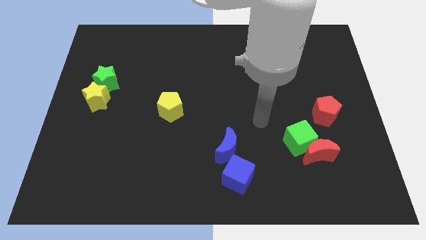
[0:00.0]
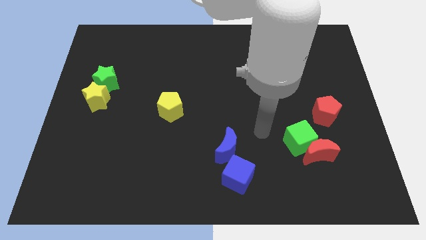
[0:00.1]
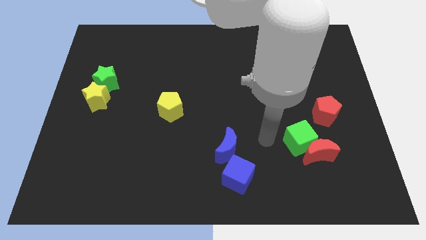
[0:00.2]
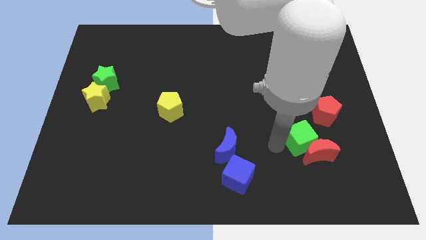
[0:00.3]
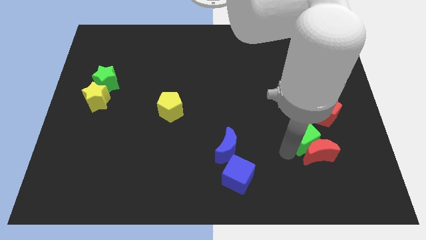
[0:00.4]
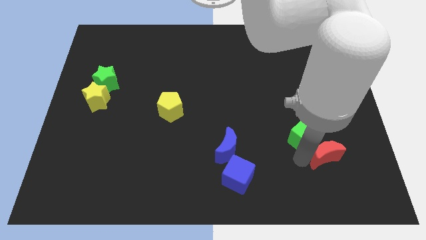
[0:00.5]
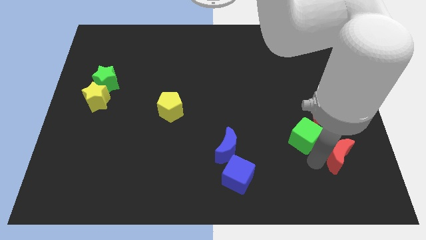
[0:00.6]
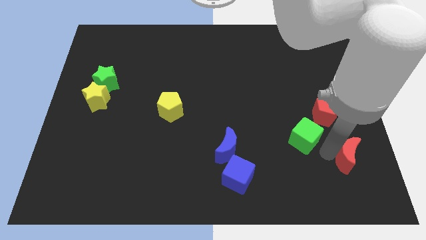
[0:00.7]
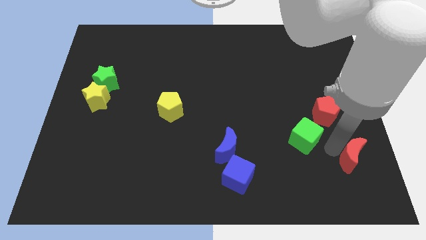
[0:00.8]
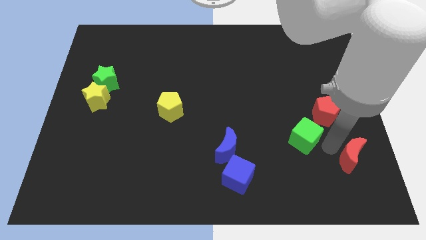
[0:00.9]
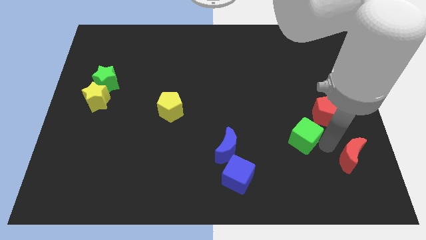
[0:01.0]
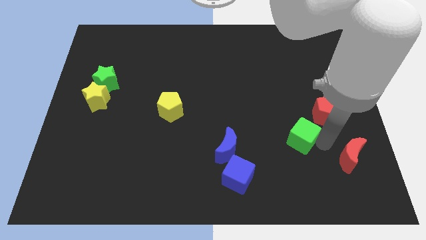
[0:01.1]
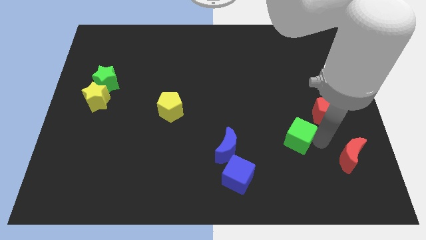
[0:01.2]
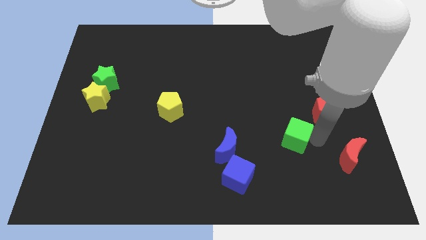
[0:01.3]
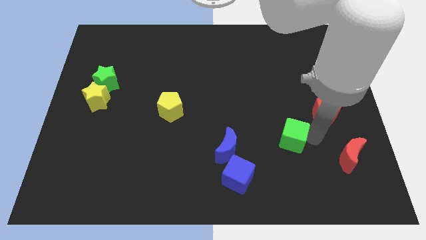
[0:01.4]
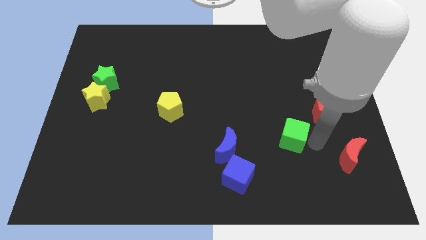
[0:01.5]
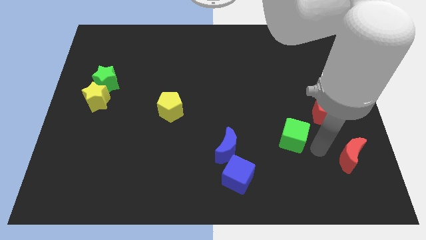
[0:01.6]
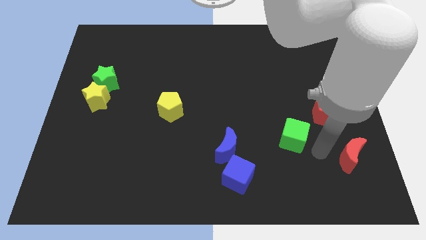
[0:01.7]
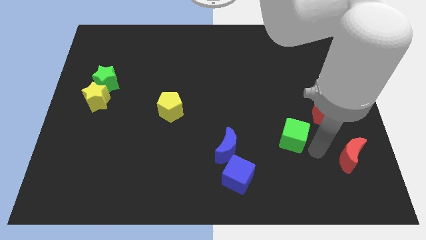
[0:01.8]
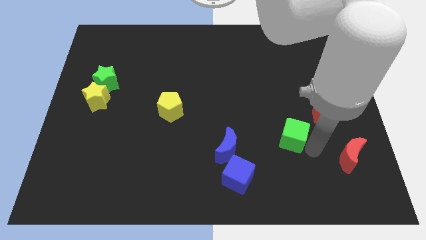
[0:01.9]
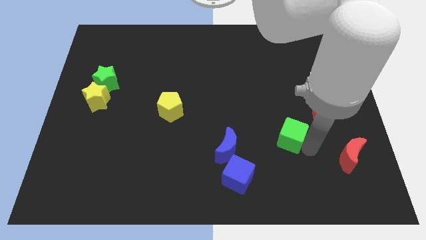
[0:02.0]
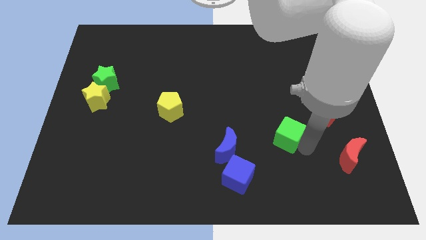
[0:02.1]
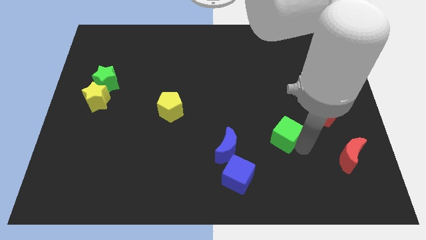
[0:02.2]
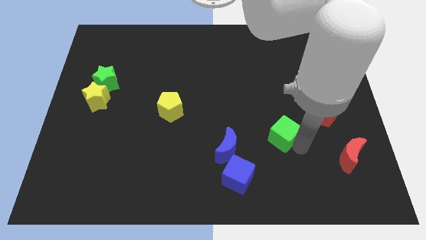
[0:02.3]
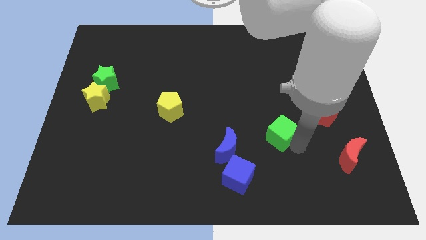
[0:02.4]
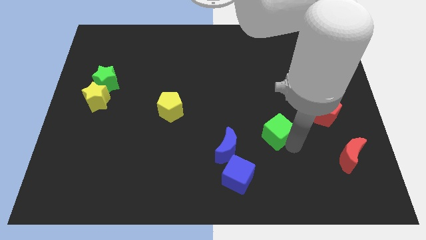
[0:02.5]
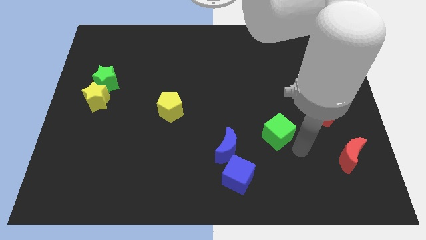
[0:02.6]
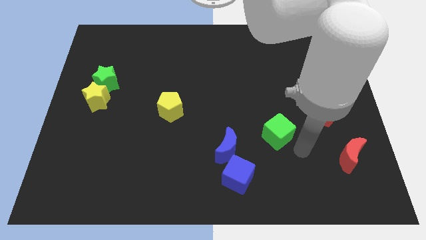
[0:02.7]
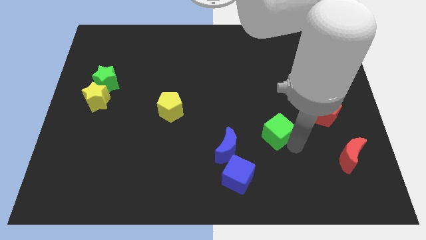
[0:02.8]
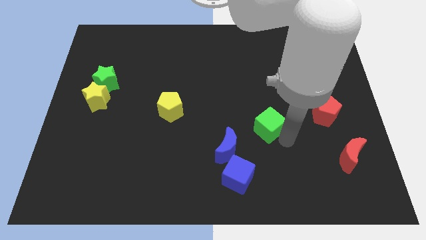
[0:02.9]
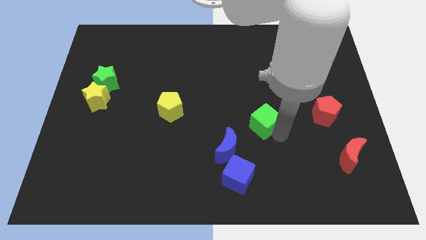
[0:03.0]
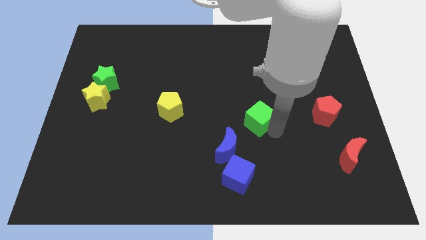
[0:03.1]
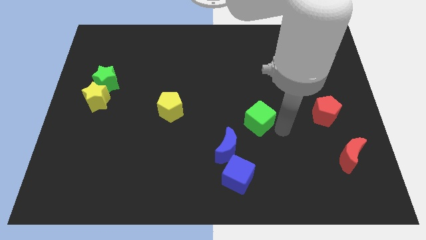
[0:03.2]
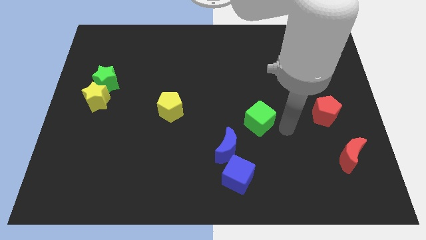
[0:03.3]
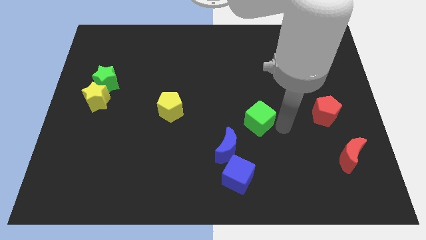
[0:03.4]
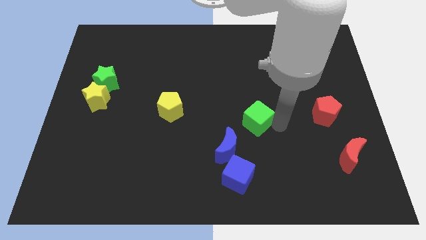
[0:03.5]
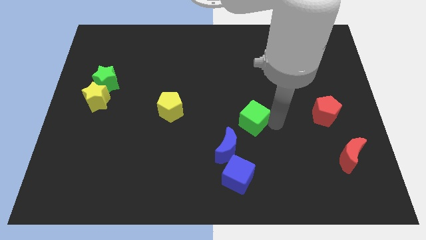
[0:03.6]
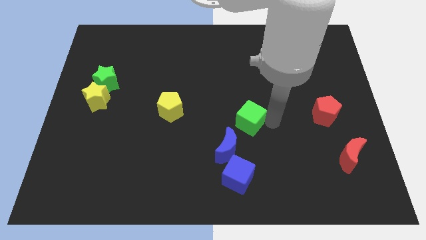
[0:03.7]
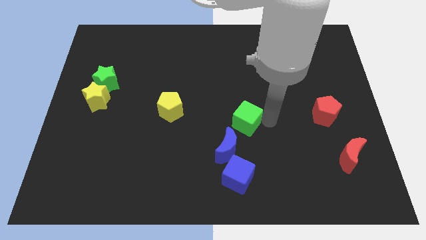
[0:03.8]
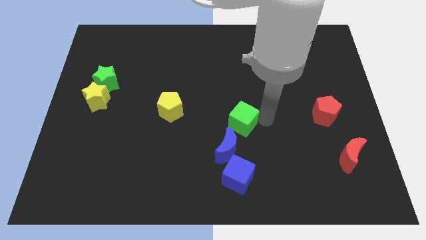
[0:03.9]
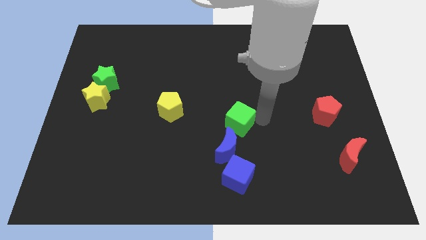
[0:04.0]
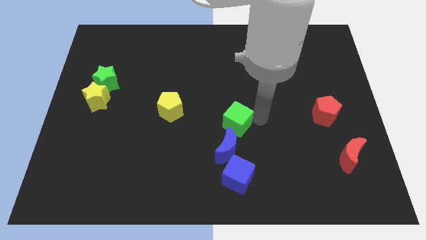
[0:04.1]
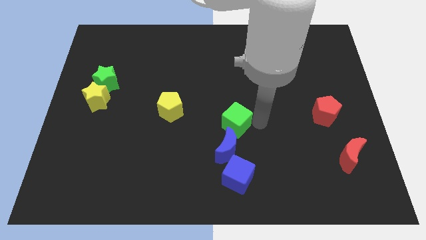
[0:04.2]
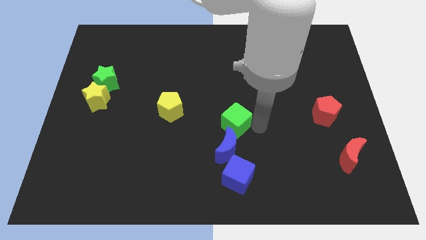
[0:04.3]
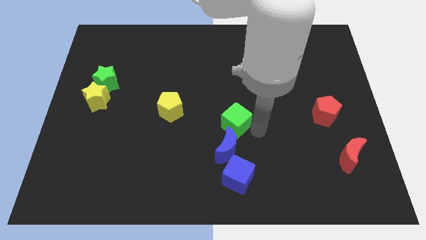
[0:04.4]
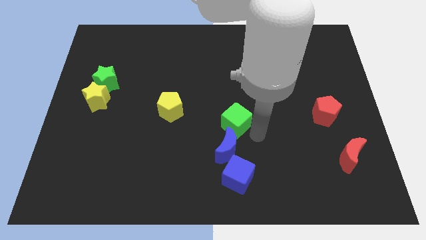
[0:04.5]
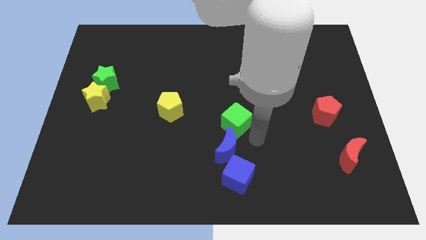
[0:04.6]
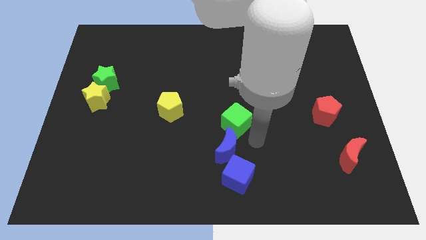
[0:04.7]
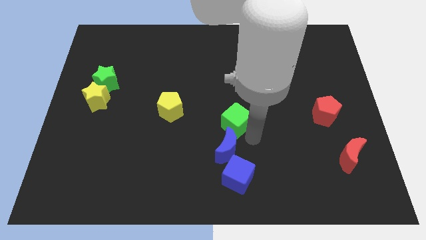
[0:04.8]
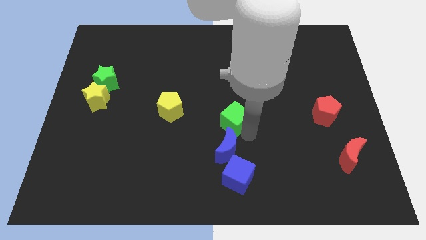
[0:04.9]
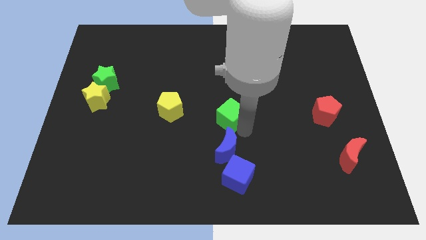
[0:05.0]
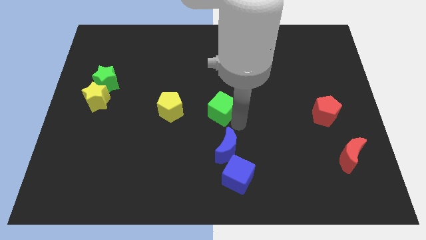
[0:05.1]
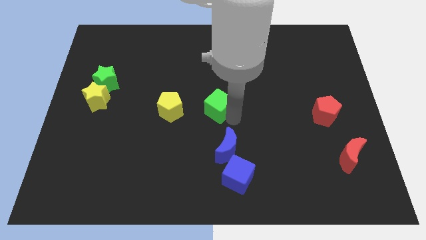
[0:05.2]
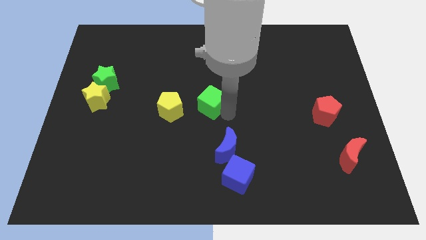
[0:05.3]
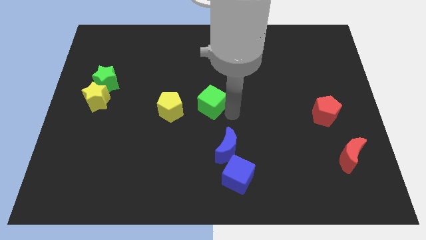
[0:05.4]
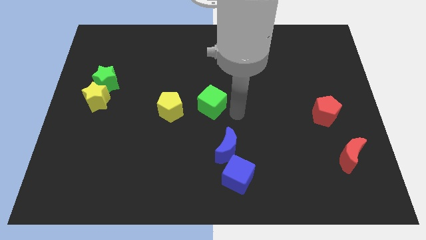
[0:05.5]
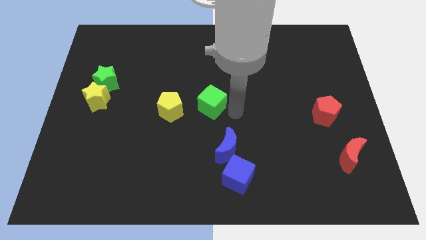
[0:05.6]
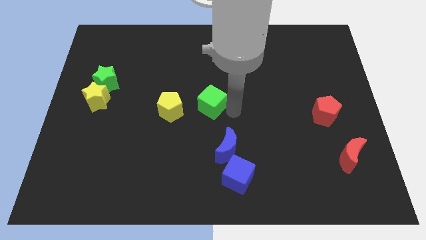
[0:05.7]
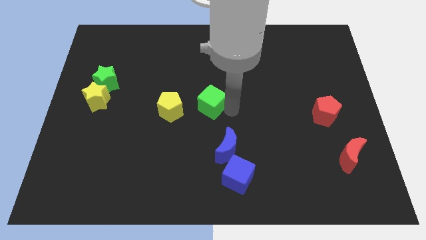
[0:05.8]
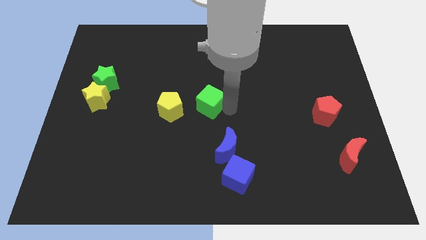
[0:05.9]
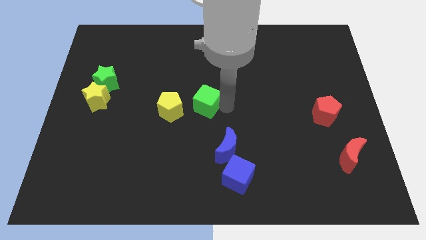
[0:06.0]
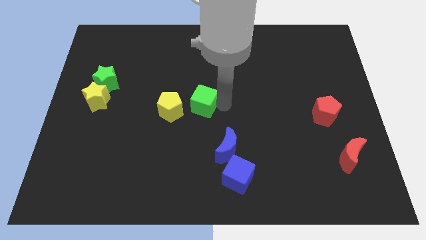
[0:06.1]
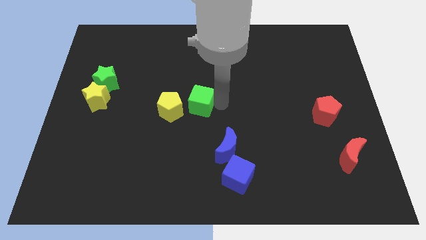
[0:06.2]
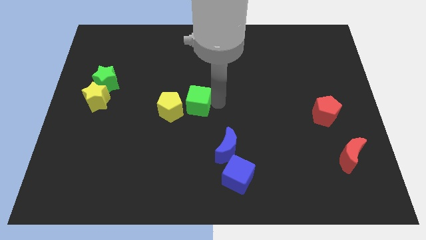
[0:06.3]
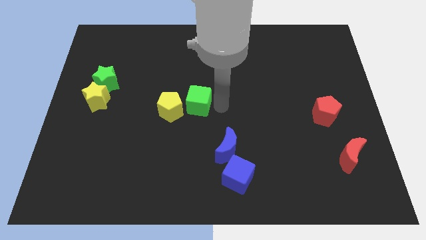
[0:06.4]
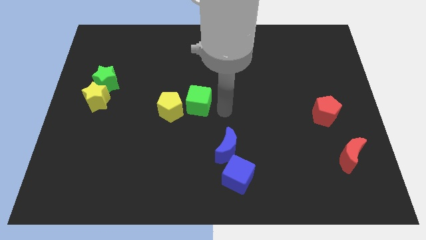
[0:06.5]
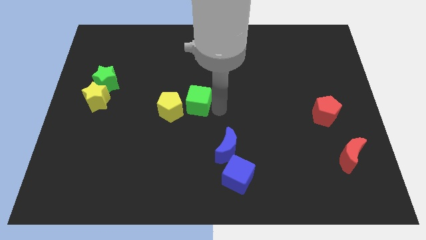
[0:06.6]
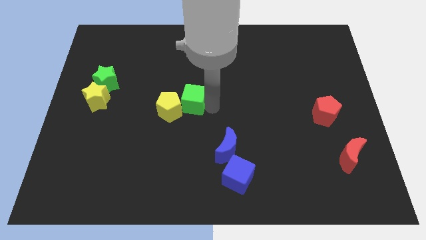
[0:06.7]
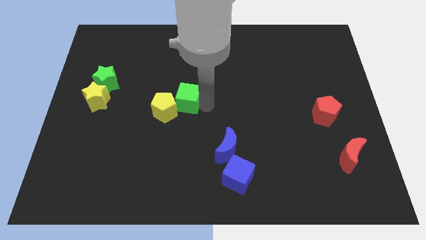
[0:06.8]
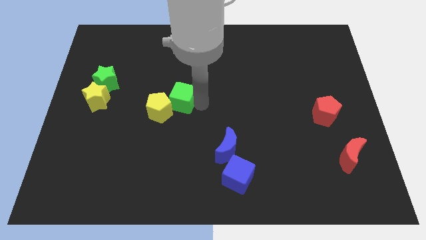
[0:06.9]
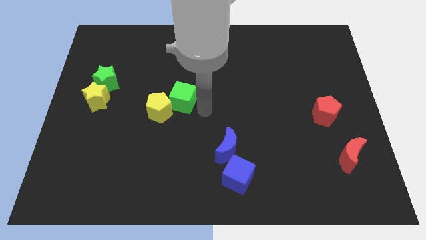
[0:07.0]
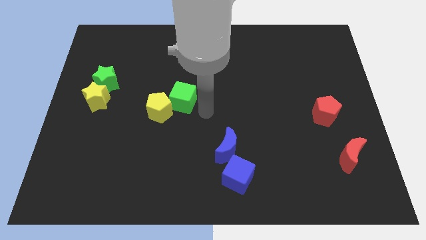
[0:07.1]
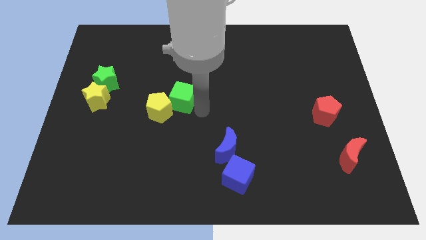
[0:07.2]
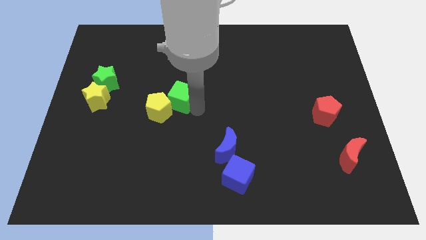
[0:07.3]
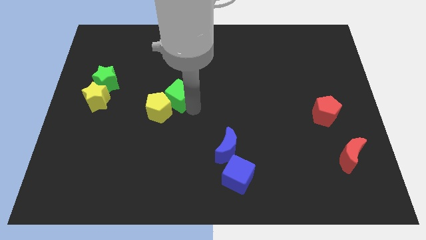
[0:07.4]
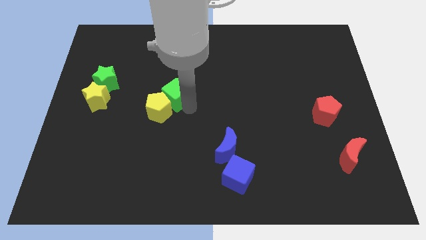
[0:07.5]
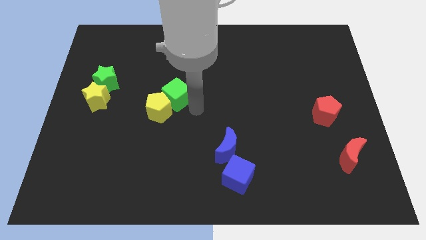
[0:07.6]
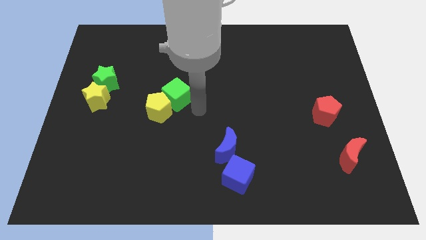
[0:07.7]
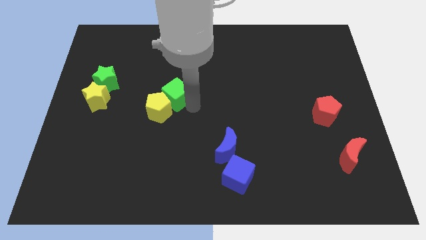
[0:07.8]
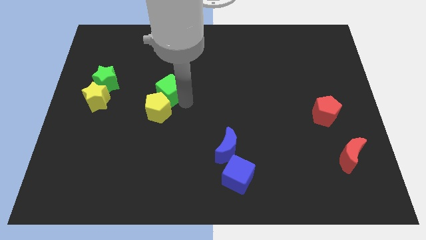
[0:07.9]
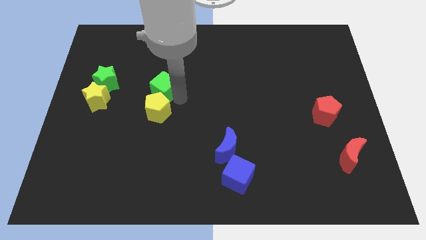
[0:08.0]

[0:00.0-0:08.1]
put the green cube just right of the green star
